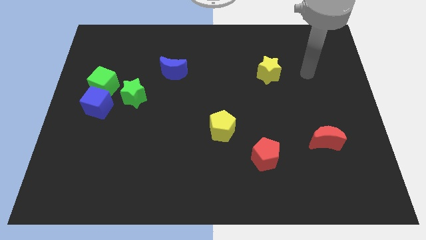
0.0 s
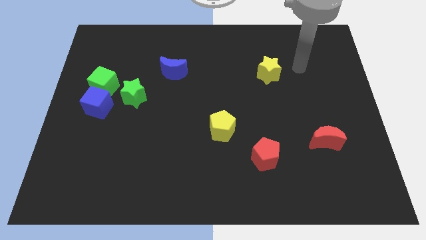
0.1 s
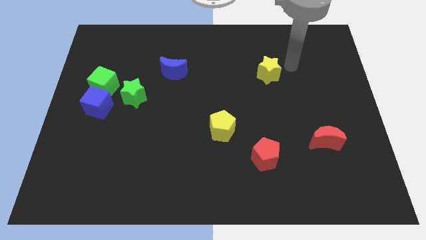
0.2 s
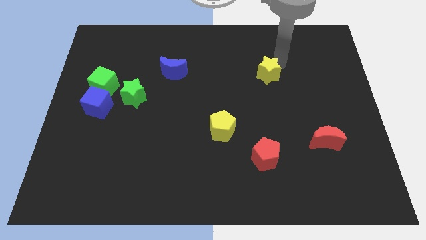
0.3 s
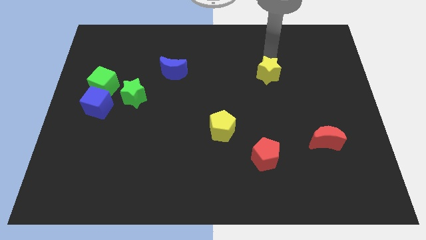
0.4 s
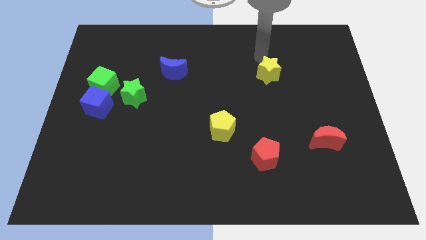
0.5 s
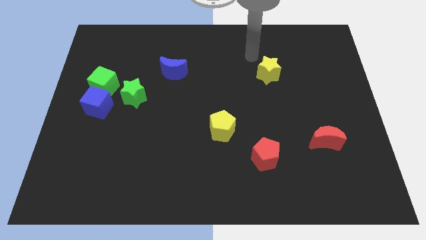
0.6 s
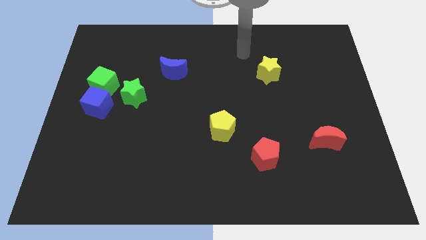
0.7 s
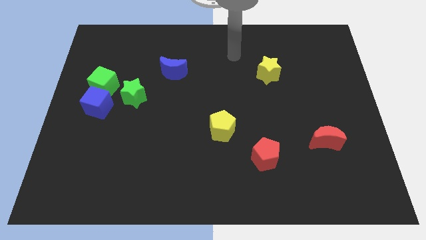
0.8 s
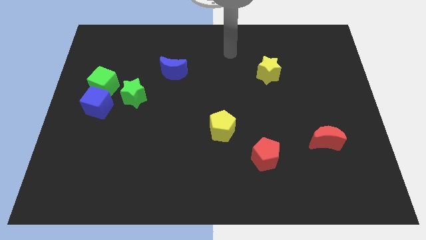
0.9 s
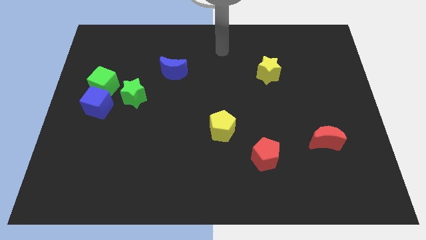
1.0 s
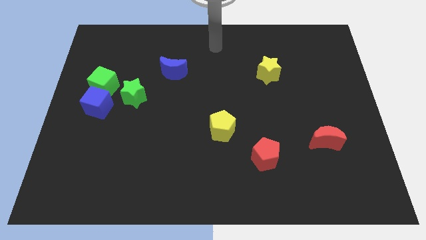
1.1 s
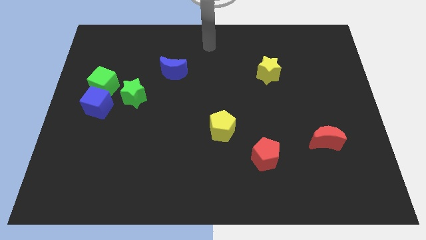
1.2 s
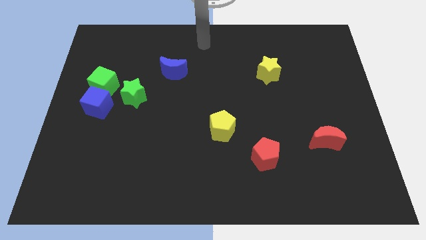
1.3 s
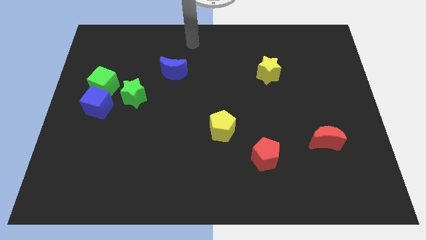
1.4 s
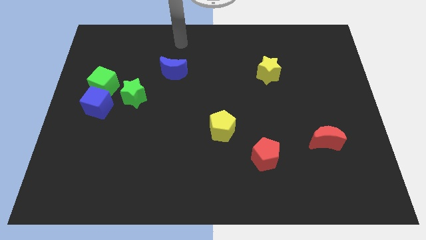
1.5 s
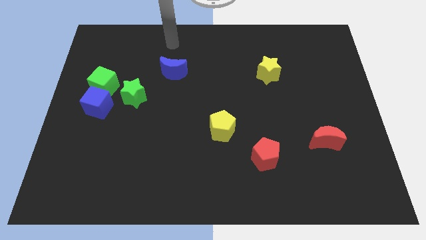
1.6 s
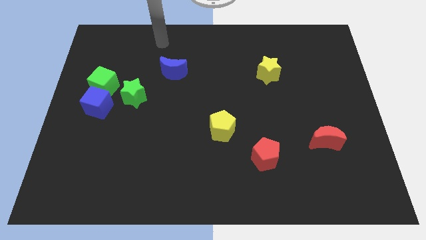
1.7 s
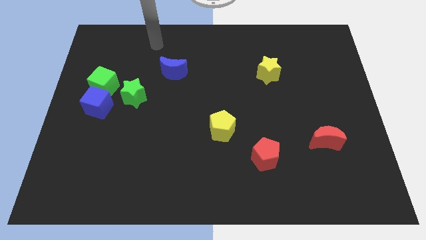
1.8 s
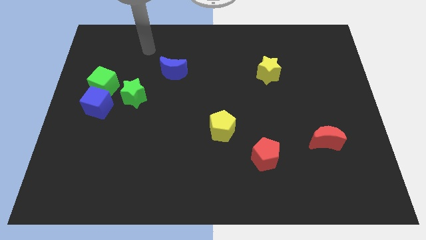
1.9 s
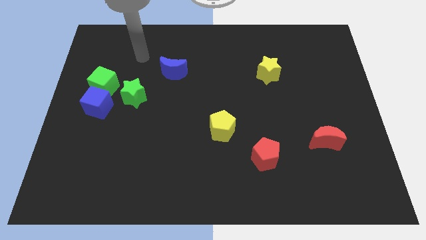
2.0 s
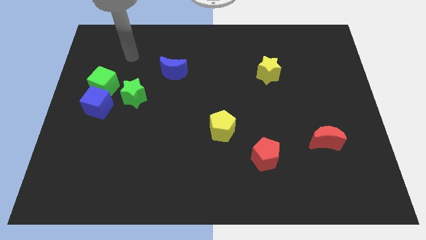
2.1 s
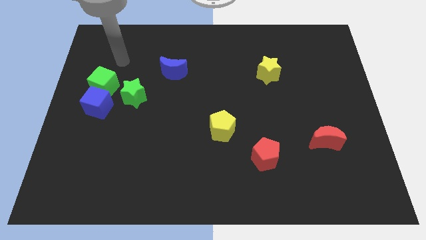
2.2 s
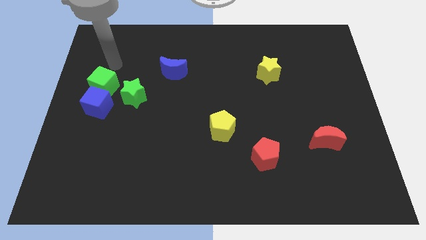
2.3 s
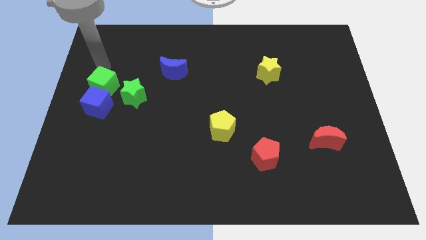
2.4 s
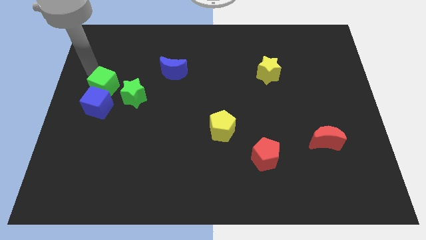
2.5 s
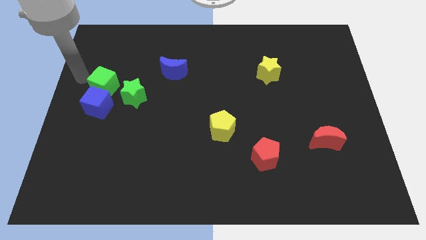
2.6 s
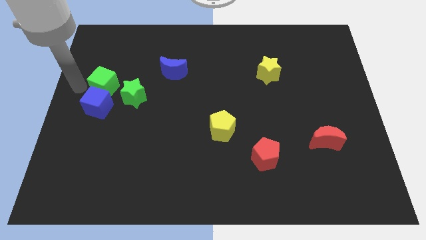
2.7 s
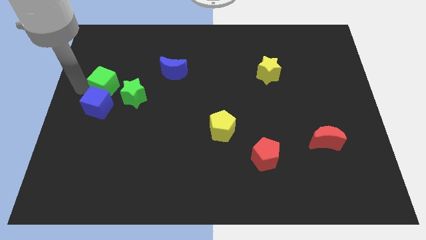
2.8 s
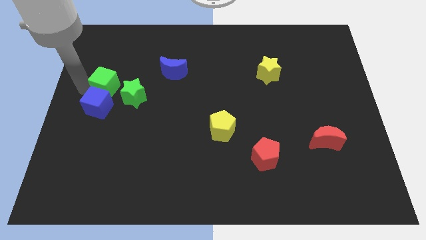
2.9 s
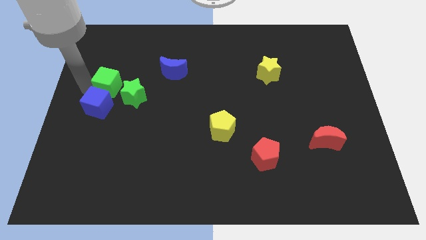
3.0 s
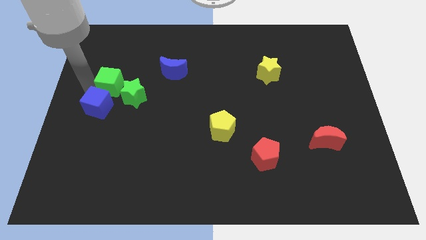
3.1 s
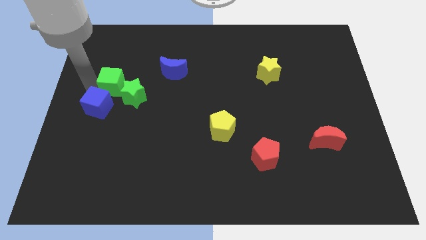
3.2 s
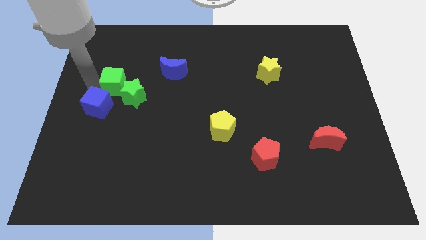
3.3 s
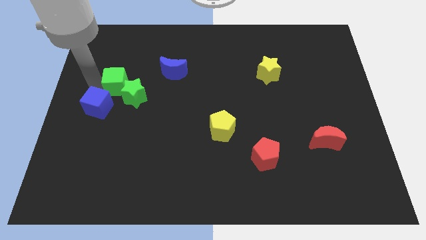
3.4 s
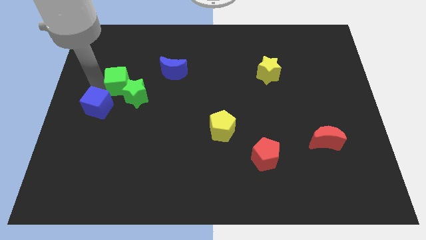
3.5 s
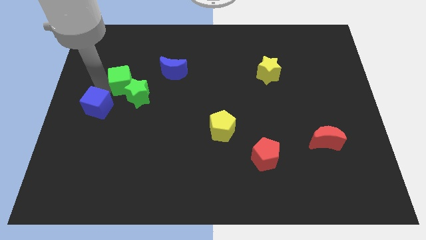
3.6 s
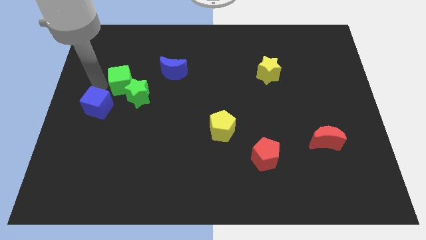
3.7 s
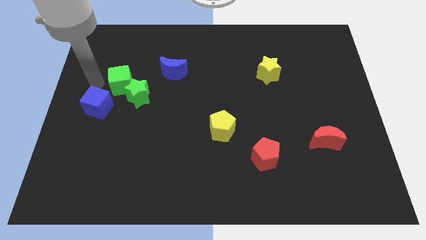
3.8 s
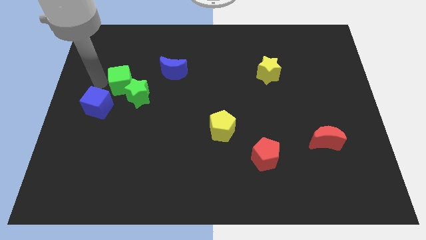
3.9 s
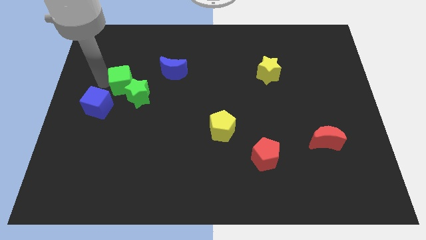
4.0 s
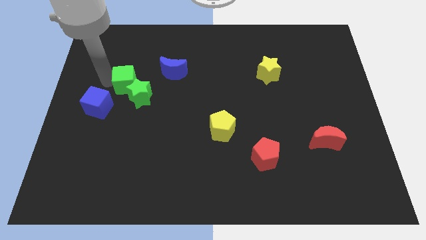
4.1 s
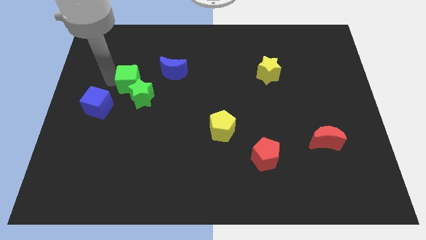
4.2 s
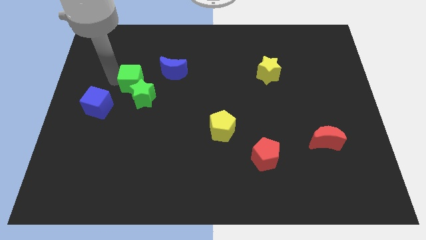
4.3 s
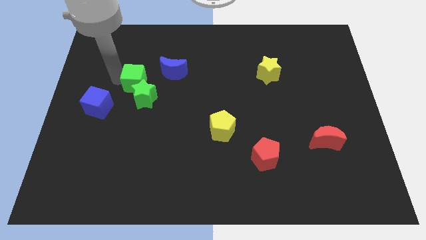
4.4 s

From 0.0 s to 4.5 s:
slide the green cube to the right somewhat

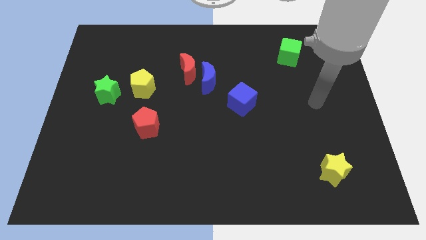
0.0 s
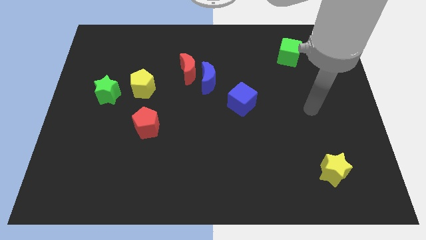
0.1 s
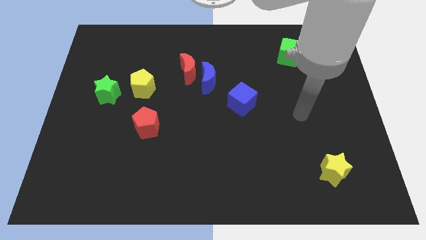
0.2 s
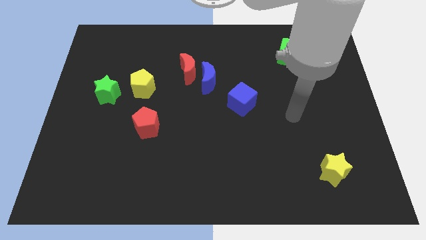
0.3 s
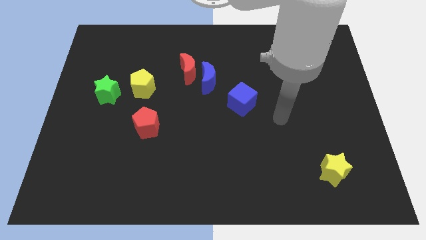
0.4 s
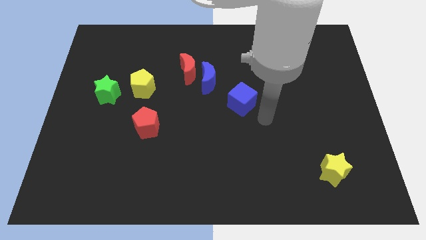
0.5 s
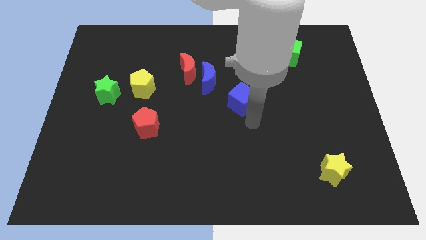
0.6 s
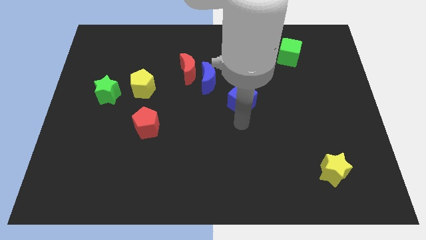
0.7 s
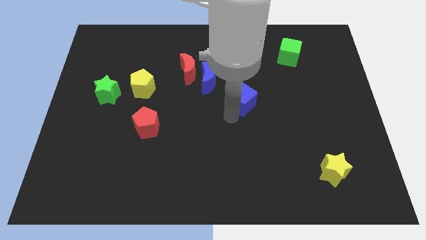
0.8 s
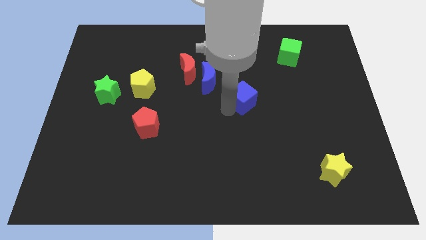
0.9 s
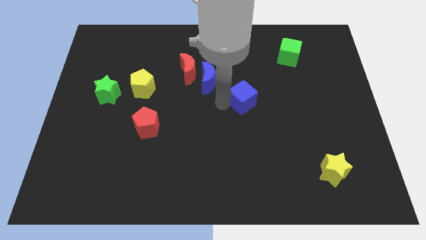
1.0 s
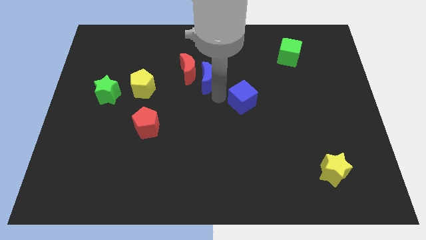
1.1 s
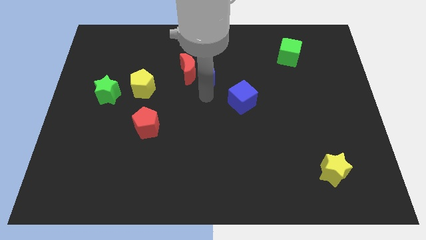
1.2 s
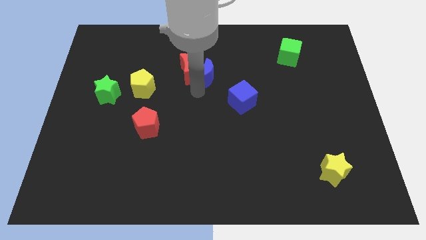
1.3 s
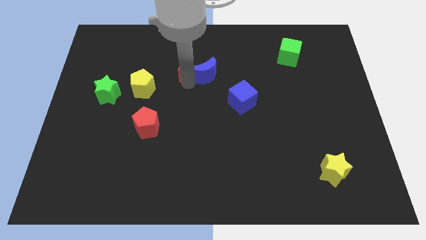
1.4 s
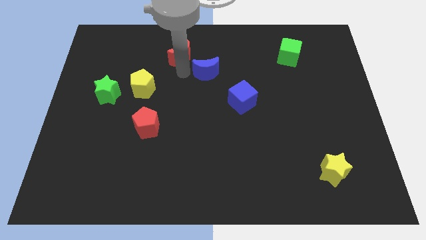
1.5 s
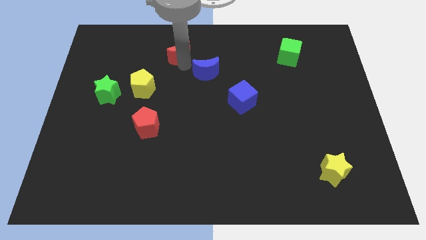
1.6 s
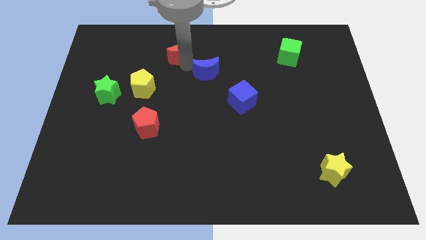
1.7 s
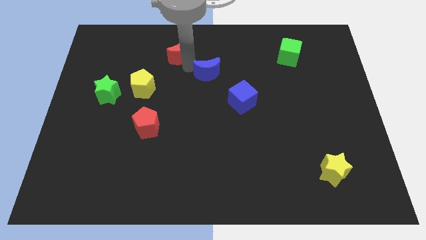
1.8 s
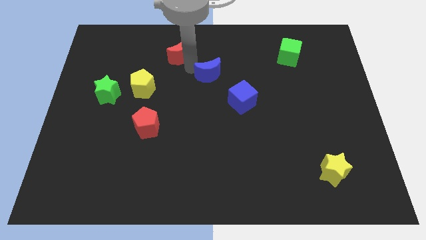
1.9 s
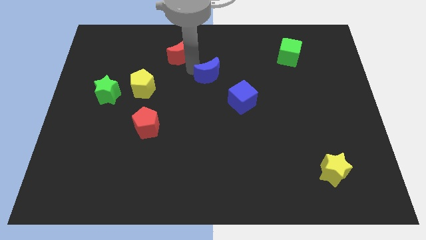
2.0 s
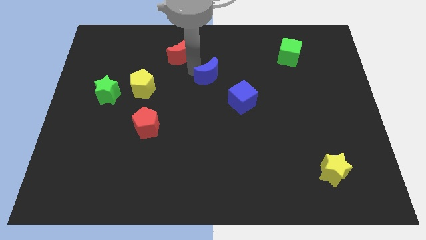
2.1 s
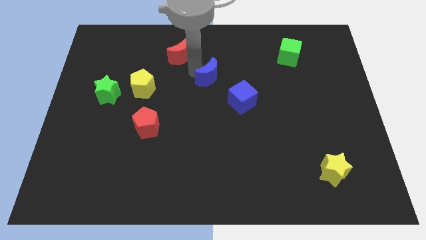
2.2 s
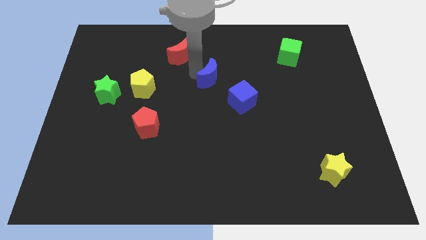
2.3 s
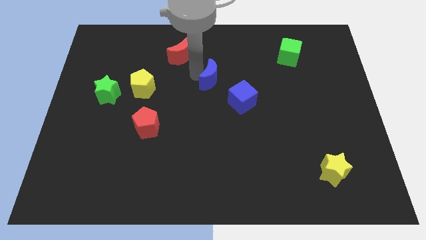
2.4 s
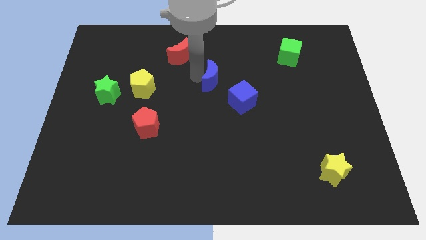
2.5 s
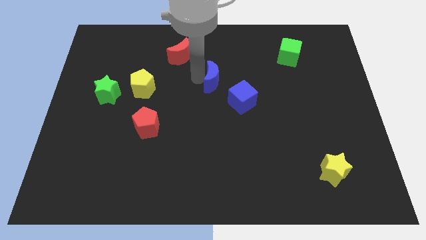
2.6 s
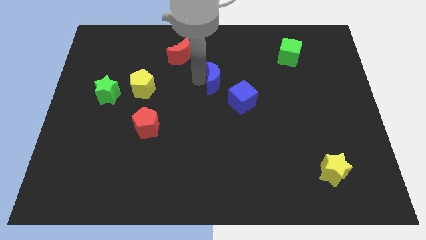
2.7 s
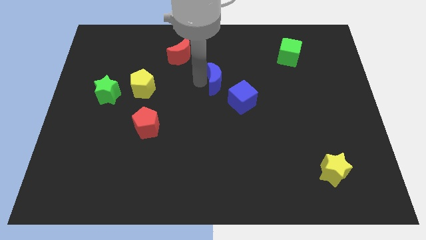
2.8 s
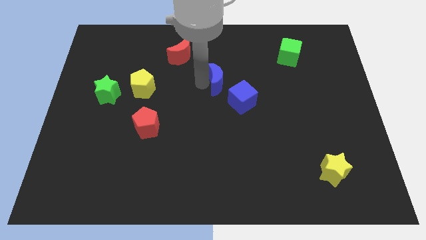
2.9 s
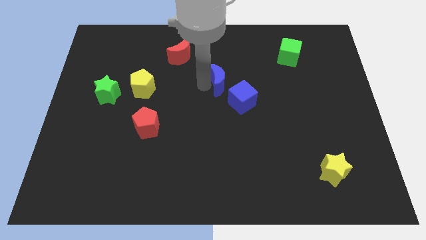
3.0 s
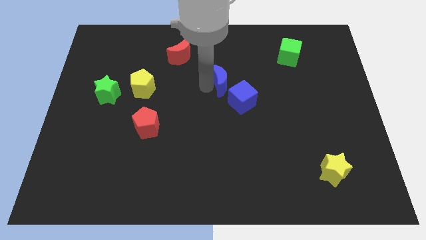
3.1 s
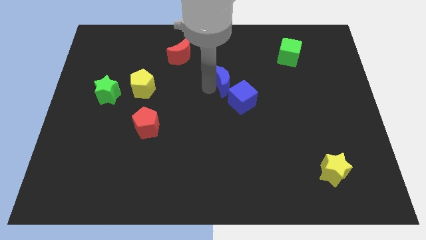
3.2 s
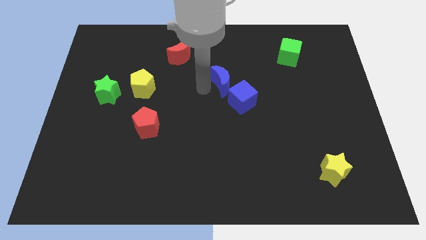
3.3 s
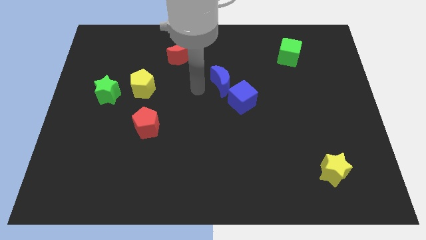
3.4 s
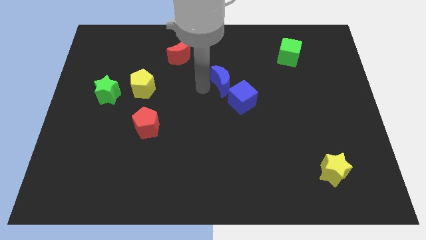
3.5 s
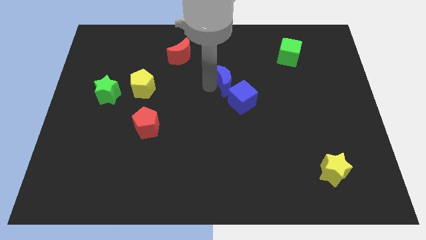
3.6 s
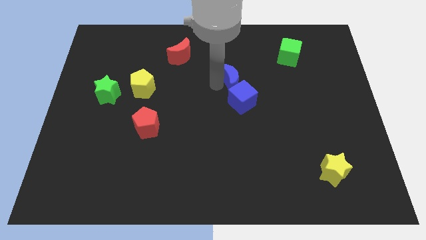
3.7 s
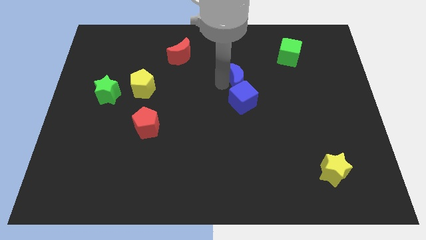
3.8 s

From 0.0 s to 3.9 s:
slightly move the blue moon right
